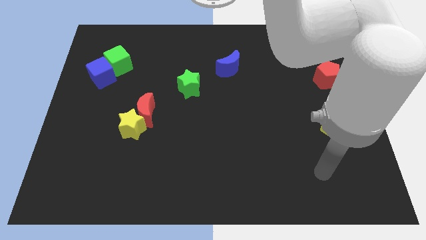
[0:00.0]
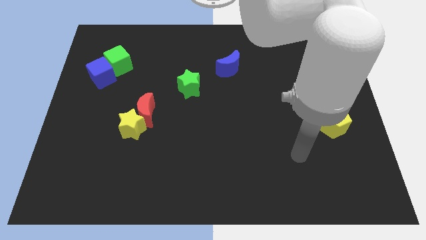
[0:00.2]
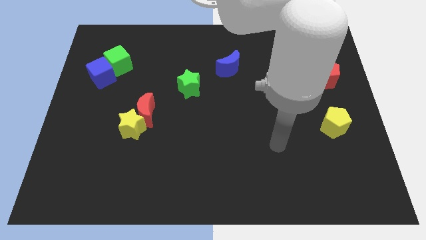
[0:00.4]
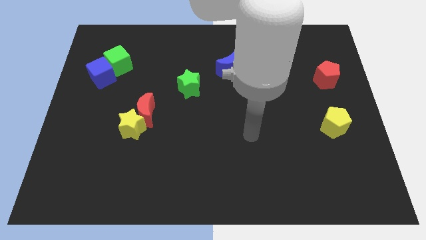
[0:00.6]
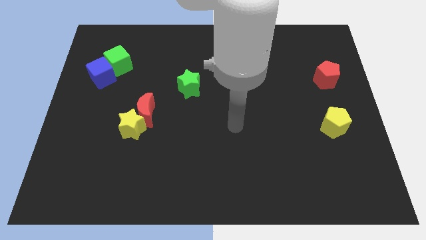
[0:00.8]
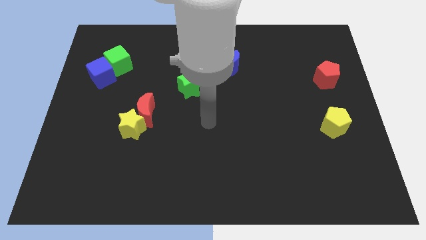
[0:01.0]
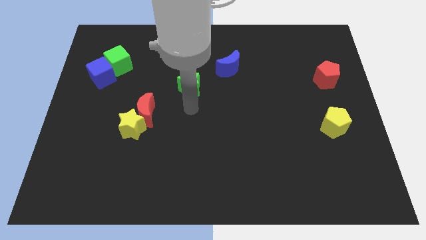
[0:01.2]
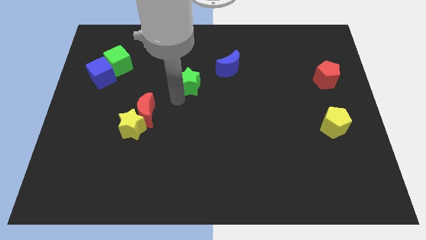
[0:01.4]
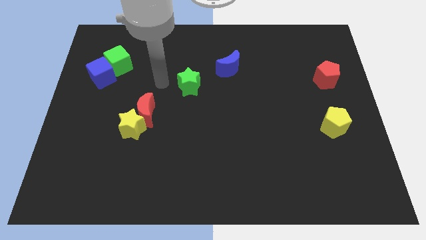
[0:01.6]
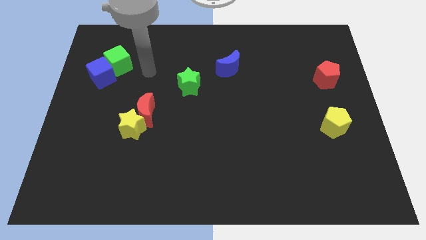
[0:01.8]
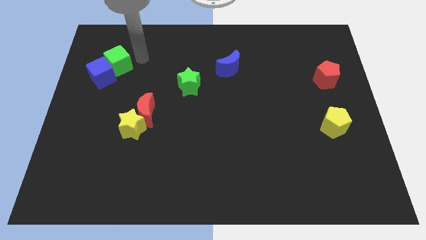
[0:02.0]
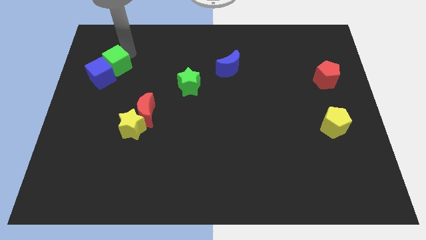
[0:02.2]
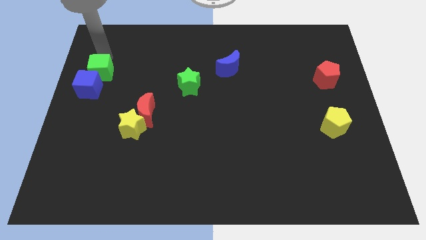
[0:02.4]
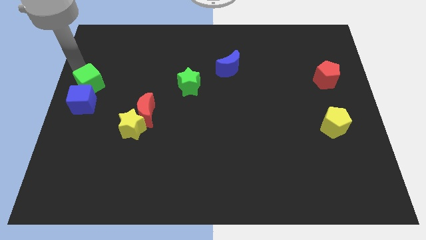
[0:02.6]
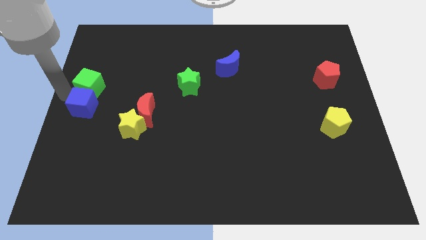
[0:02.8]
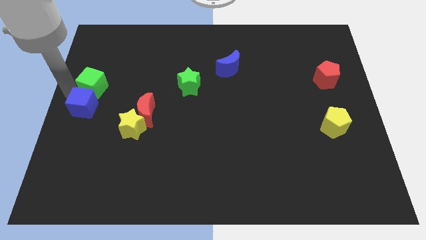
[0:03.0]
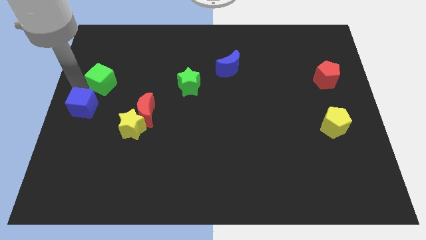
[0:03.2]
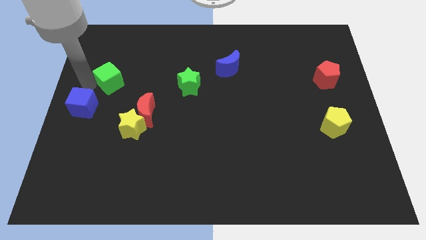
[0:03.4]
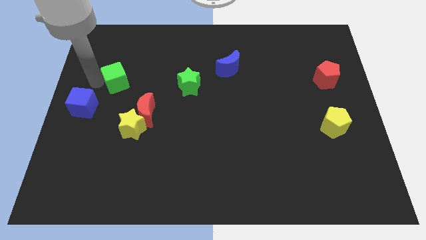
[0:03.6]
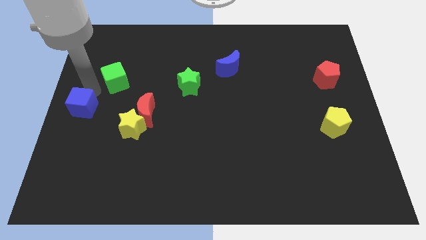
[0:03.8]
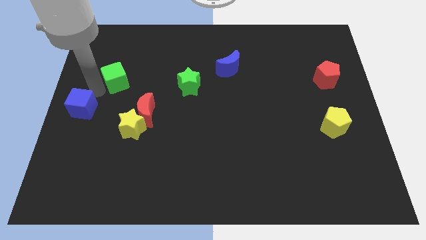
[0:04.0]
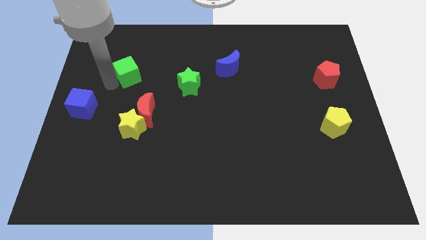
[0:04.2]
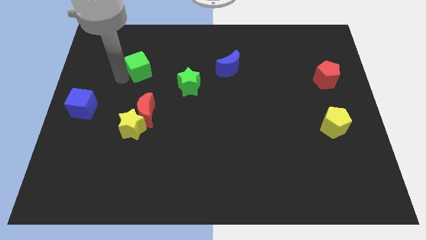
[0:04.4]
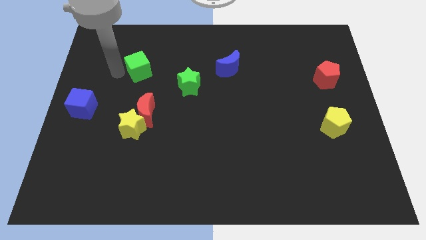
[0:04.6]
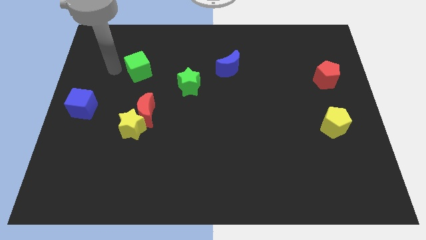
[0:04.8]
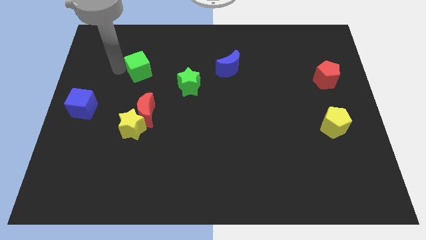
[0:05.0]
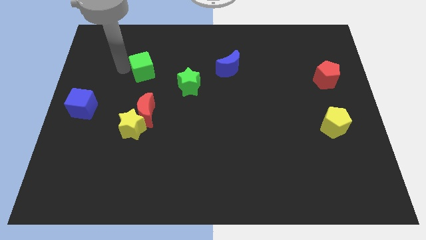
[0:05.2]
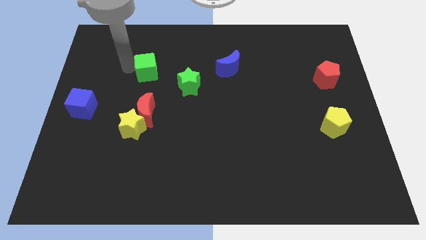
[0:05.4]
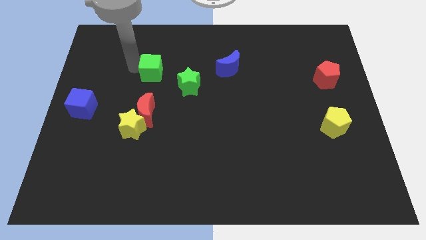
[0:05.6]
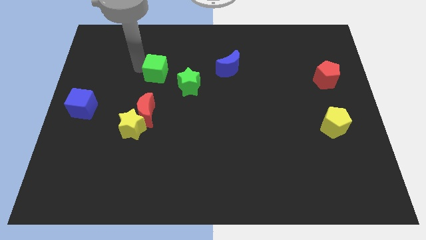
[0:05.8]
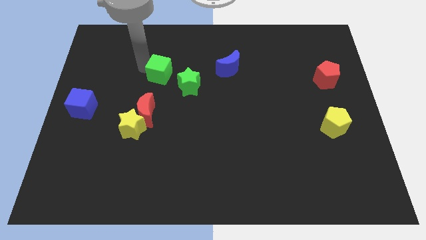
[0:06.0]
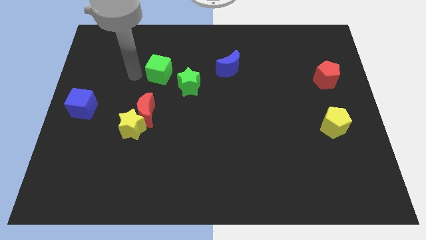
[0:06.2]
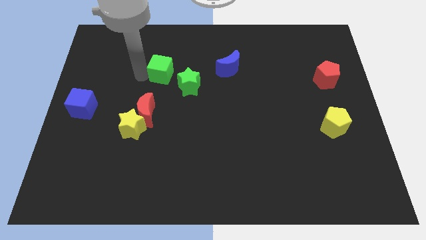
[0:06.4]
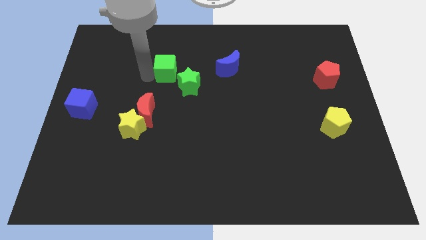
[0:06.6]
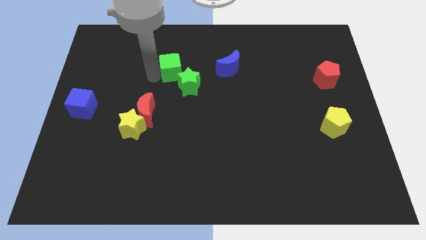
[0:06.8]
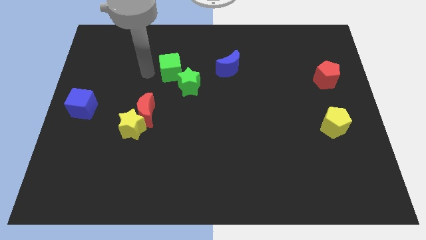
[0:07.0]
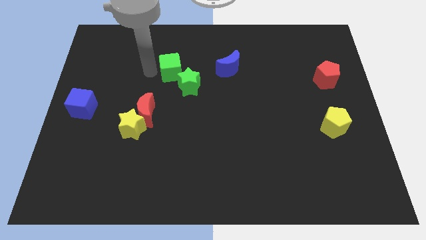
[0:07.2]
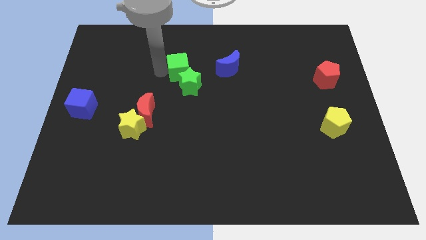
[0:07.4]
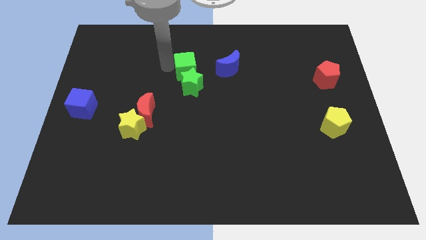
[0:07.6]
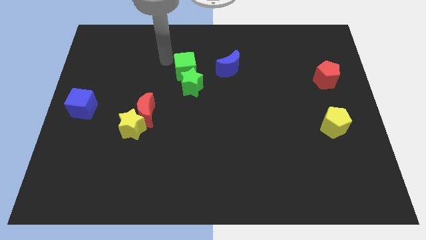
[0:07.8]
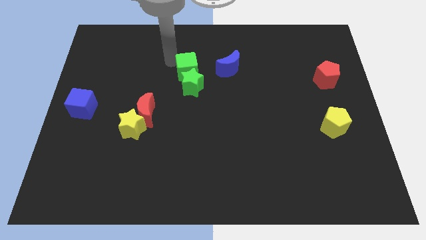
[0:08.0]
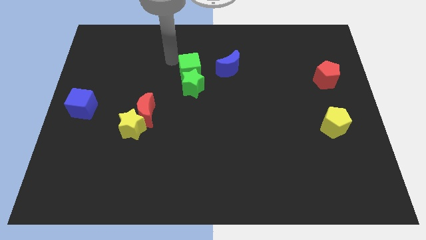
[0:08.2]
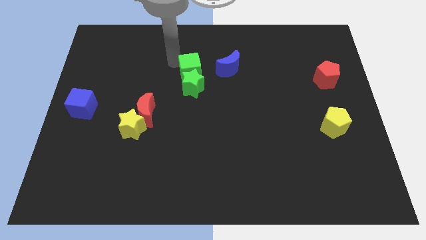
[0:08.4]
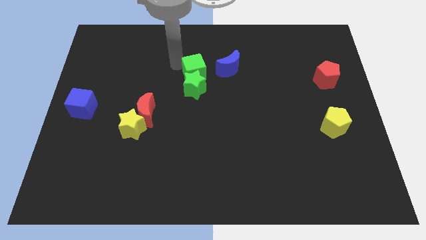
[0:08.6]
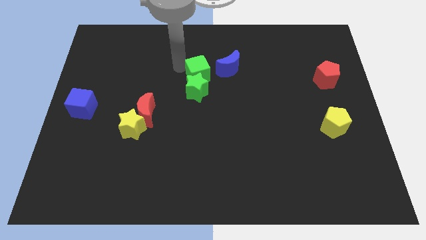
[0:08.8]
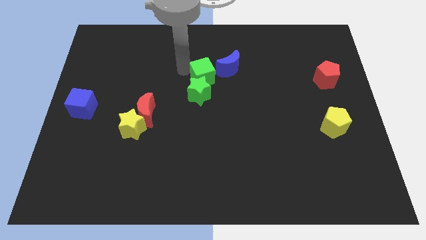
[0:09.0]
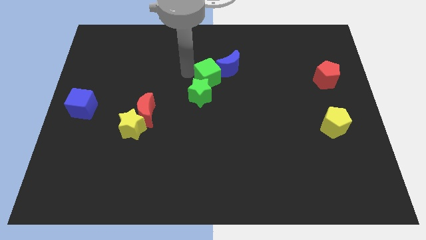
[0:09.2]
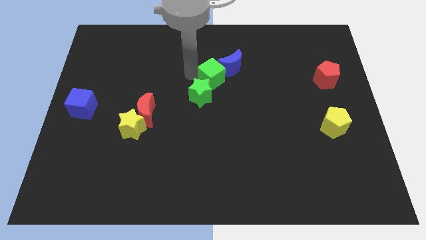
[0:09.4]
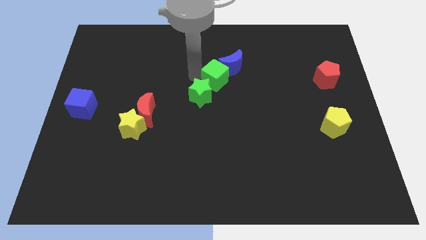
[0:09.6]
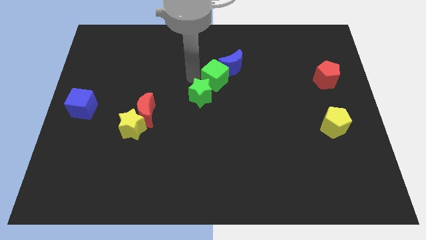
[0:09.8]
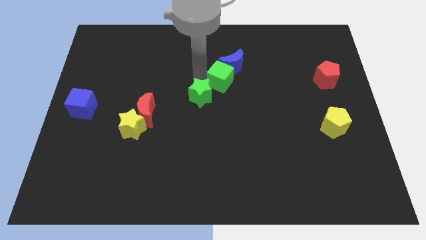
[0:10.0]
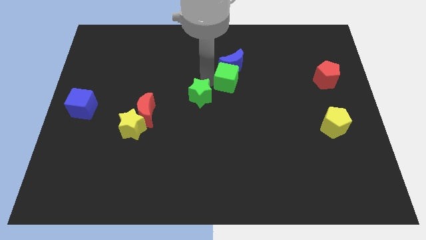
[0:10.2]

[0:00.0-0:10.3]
put the green cube diagonally down and to the right of the blue moon

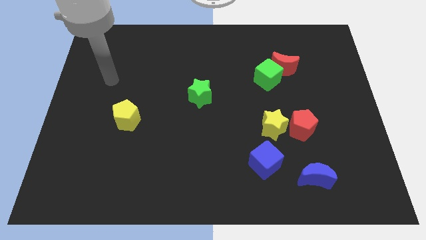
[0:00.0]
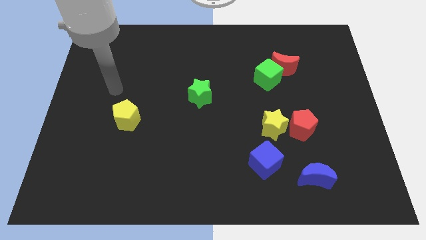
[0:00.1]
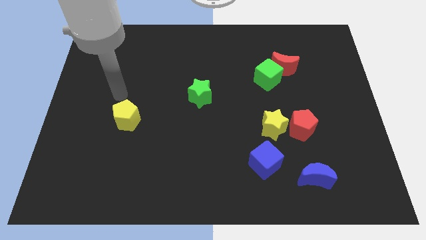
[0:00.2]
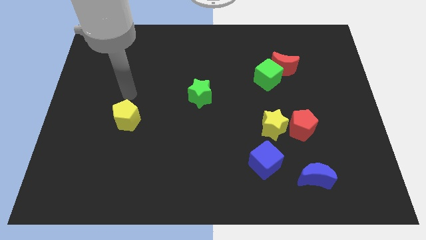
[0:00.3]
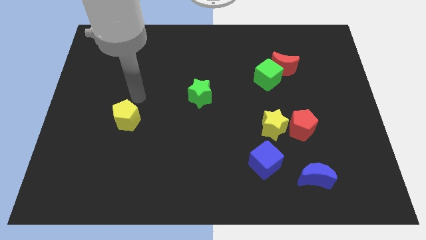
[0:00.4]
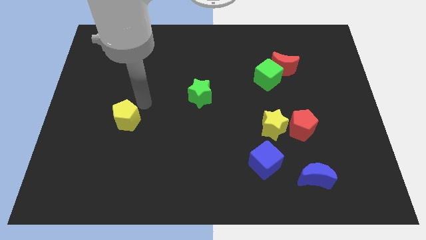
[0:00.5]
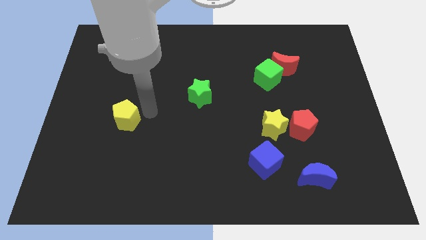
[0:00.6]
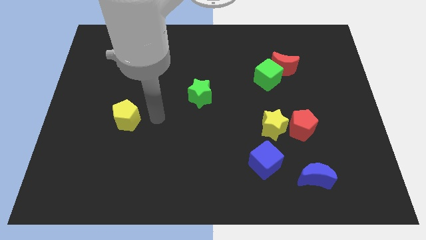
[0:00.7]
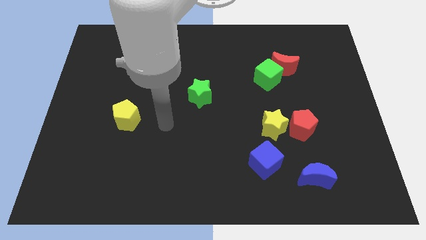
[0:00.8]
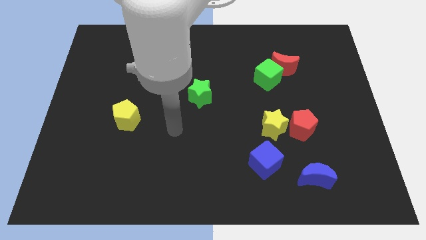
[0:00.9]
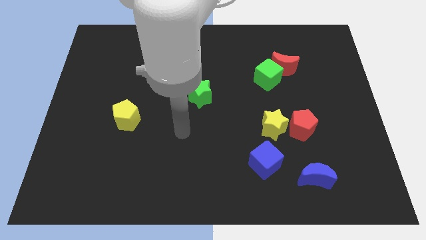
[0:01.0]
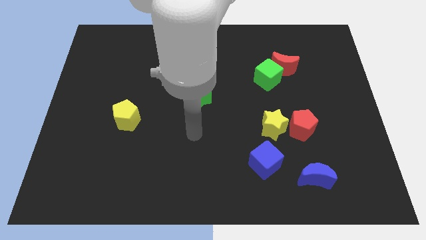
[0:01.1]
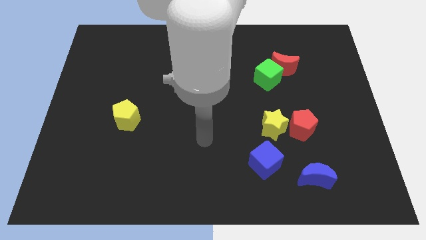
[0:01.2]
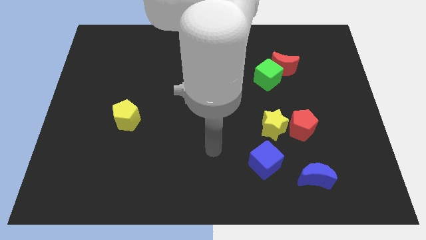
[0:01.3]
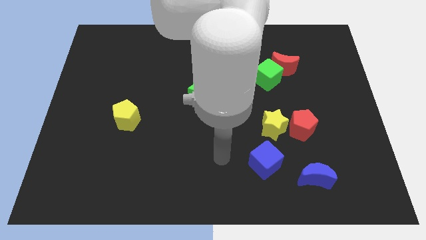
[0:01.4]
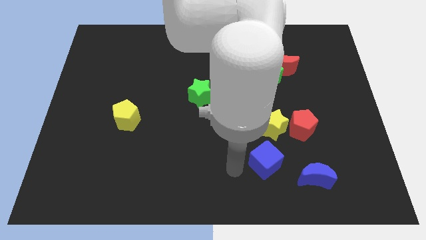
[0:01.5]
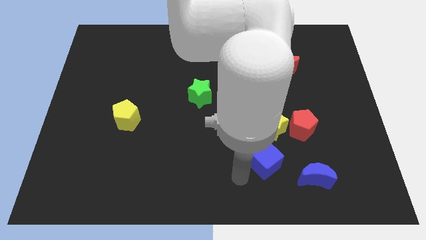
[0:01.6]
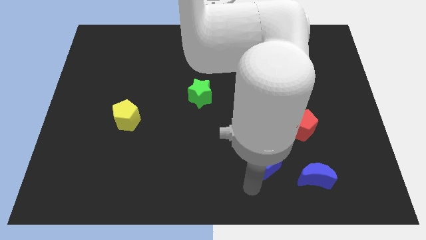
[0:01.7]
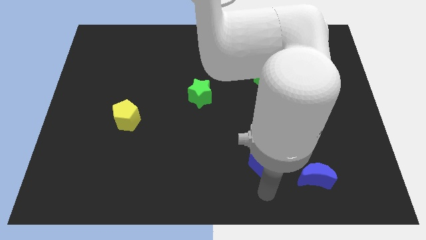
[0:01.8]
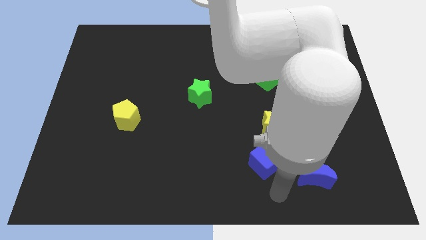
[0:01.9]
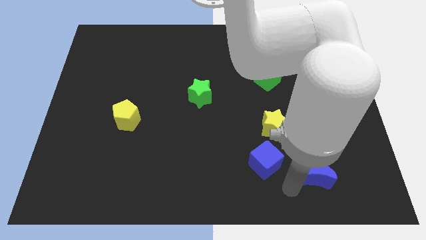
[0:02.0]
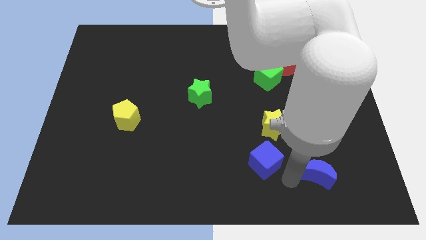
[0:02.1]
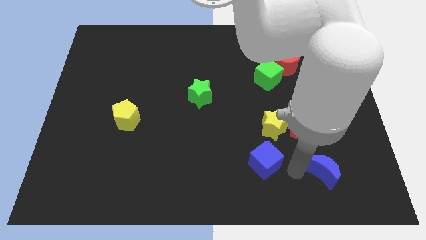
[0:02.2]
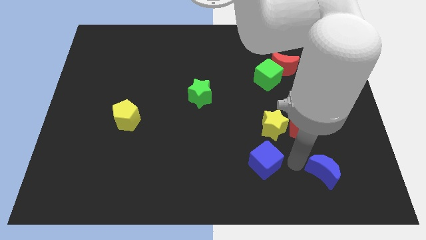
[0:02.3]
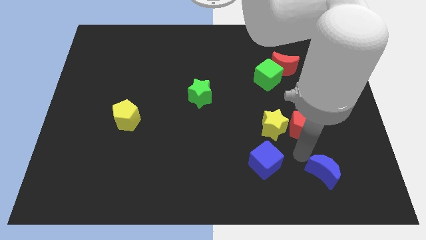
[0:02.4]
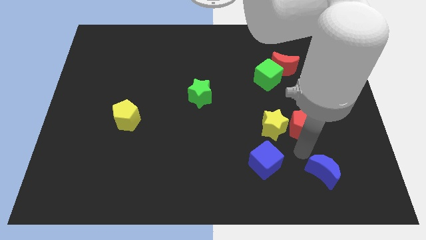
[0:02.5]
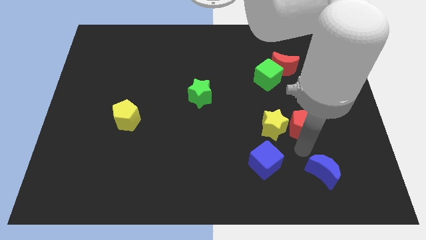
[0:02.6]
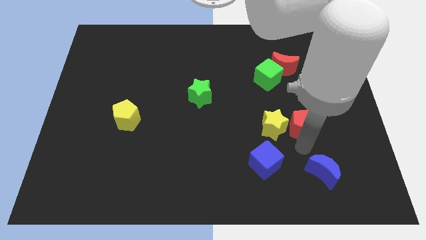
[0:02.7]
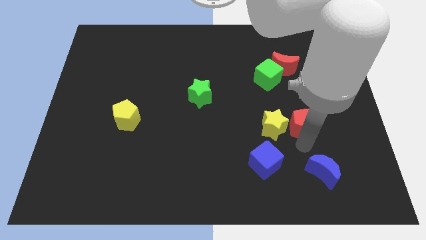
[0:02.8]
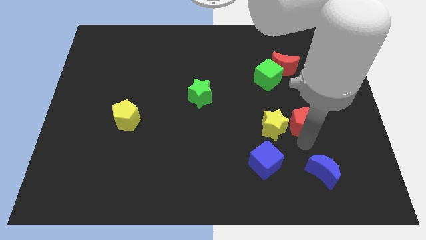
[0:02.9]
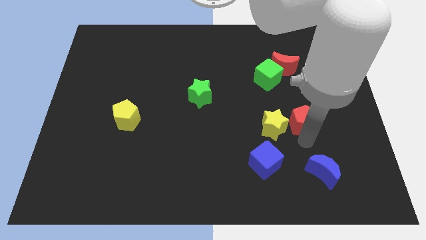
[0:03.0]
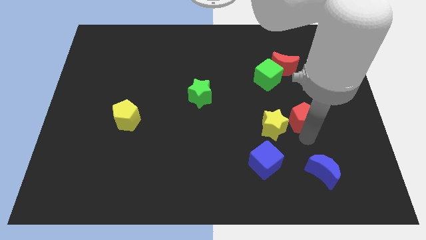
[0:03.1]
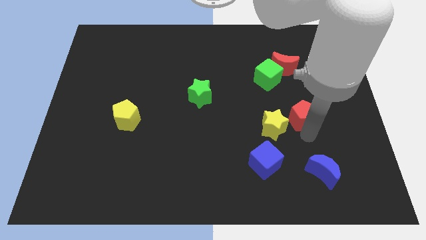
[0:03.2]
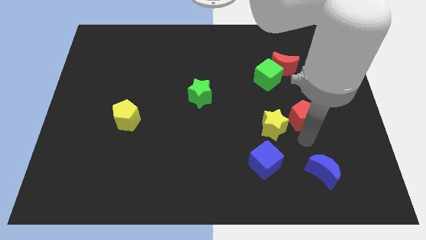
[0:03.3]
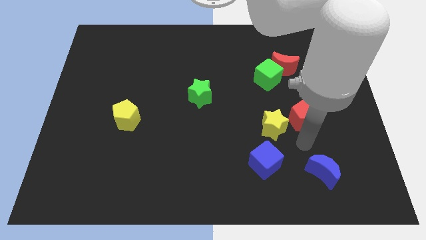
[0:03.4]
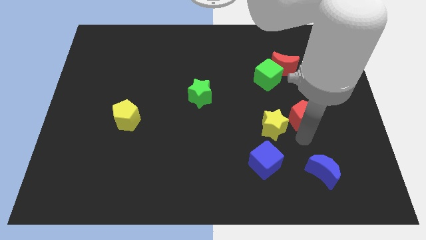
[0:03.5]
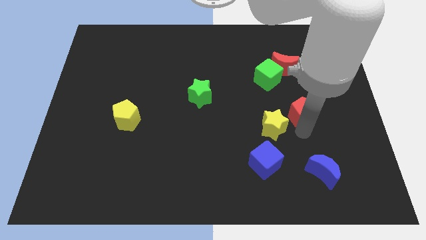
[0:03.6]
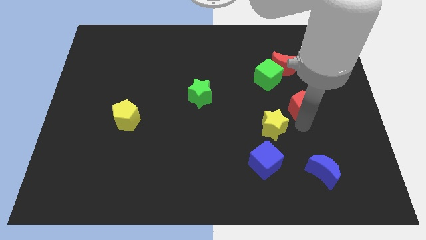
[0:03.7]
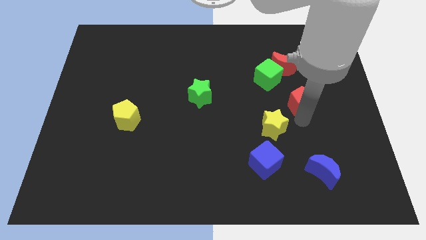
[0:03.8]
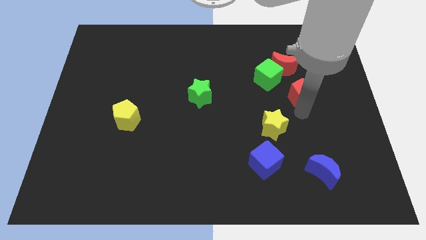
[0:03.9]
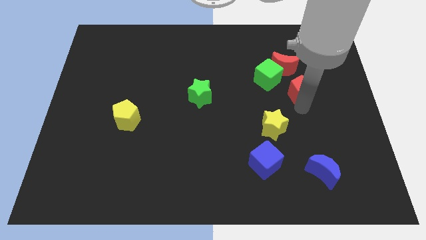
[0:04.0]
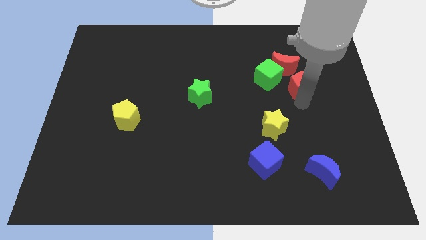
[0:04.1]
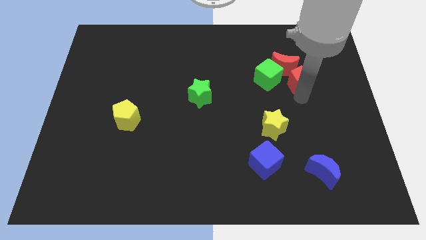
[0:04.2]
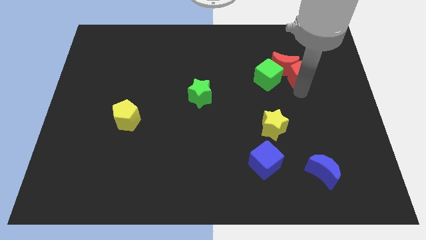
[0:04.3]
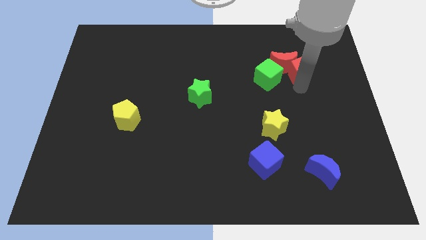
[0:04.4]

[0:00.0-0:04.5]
push the red pentagon diagonally up and to the right of the green cube
